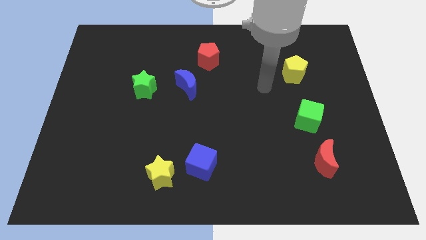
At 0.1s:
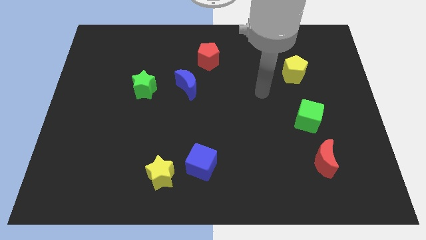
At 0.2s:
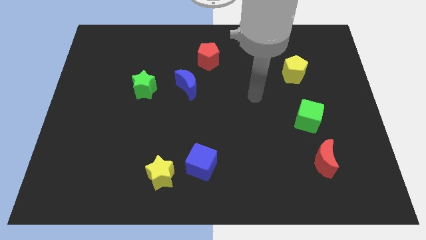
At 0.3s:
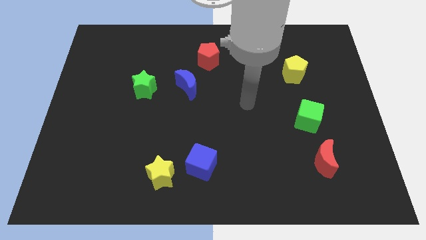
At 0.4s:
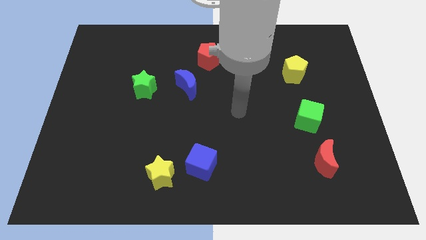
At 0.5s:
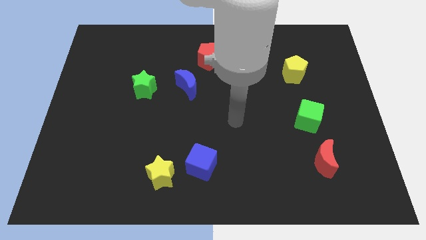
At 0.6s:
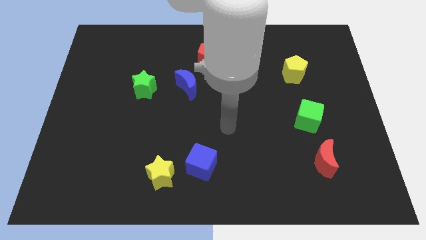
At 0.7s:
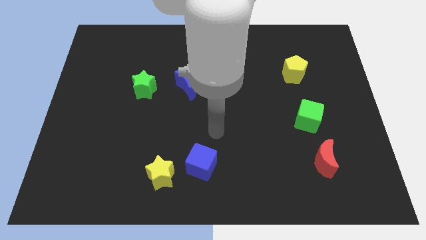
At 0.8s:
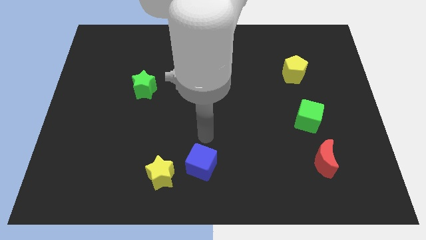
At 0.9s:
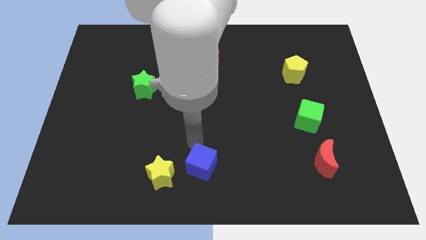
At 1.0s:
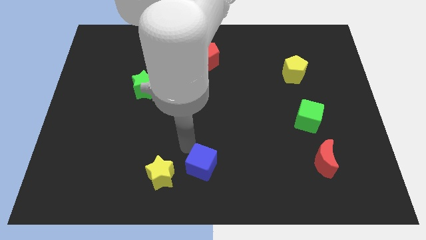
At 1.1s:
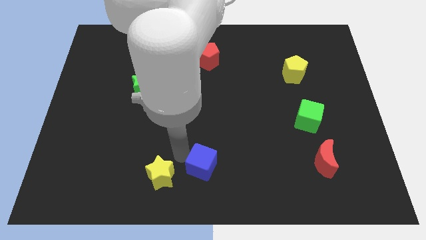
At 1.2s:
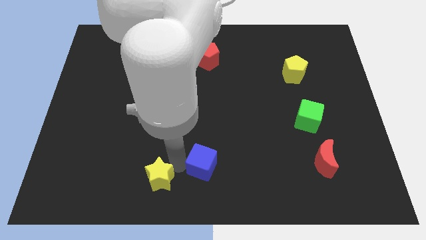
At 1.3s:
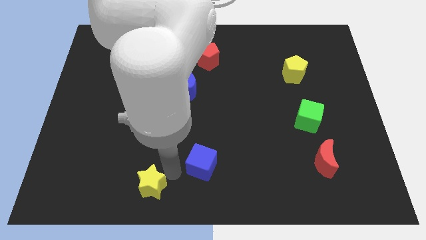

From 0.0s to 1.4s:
move the blue cube away from the yellow star

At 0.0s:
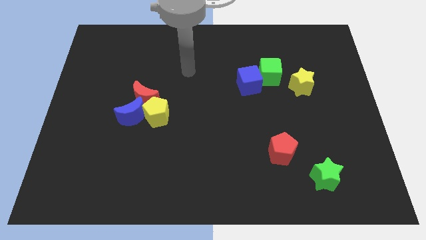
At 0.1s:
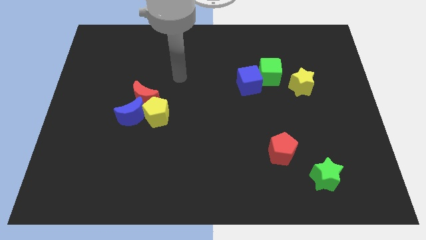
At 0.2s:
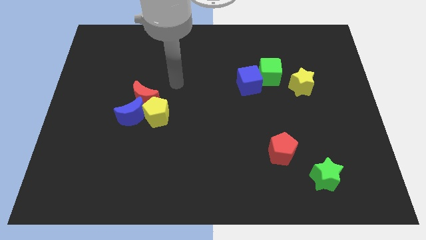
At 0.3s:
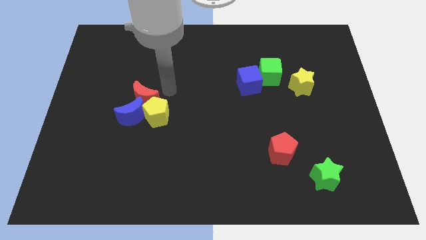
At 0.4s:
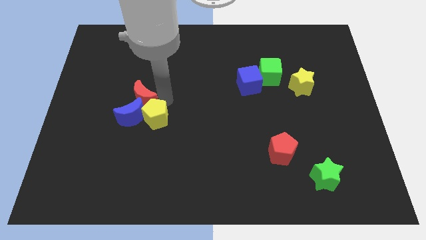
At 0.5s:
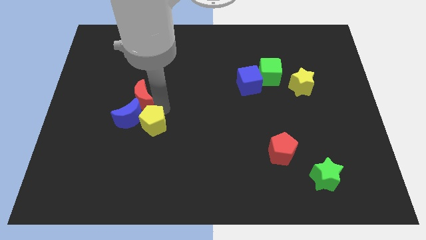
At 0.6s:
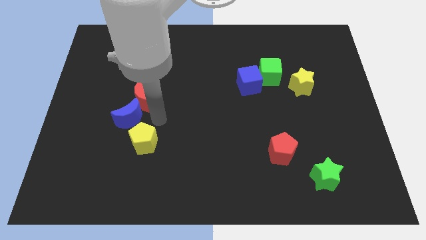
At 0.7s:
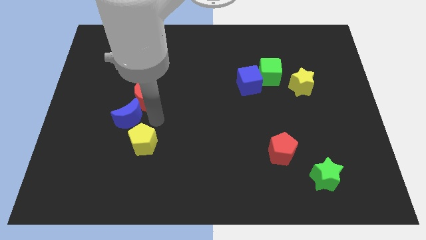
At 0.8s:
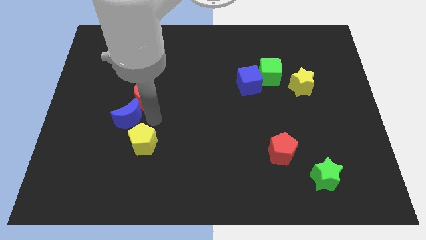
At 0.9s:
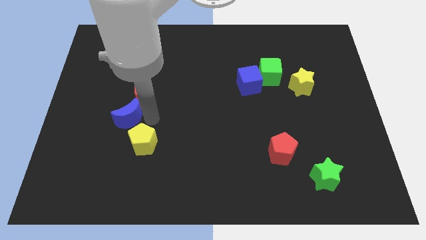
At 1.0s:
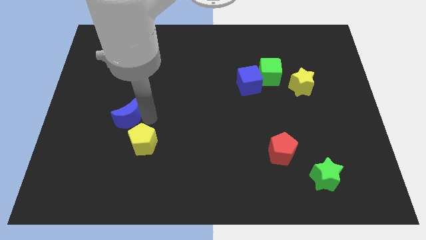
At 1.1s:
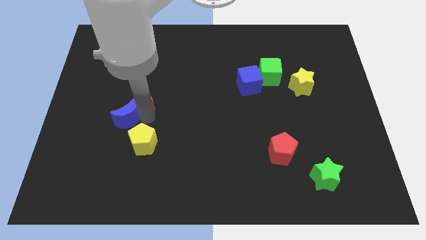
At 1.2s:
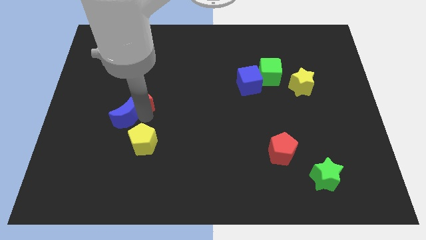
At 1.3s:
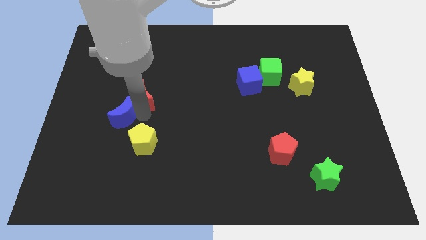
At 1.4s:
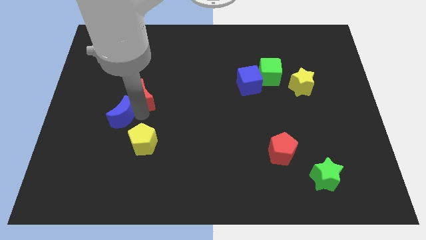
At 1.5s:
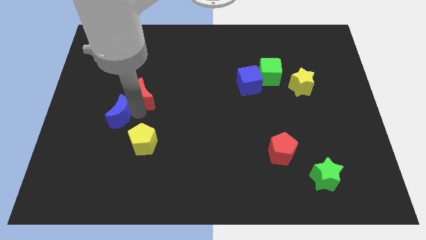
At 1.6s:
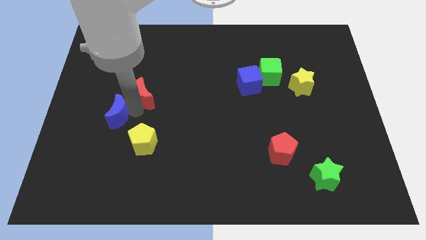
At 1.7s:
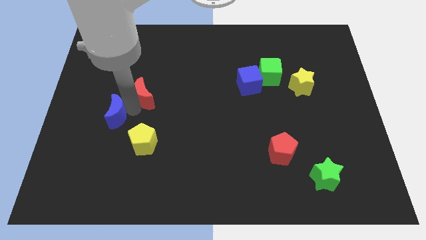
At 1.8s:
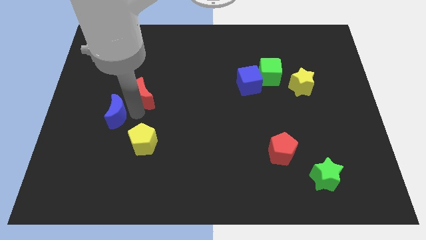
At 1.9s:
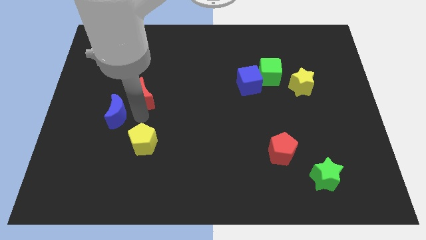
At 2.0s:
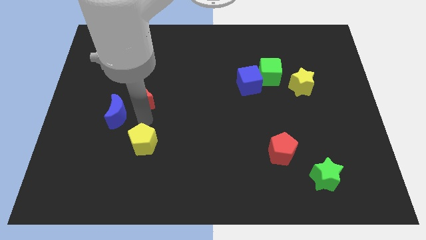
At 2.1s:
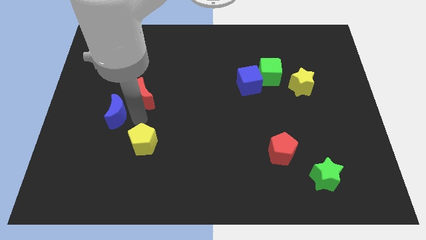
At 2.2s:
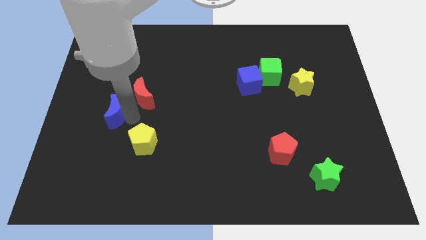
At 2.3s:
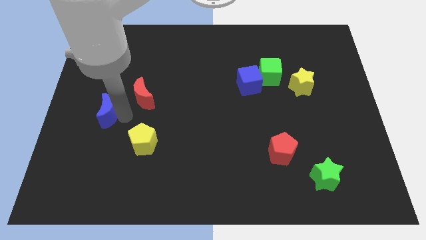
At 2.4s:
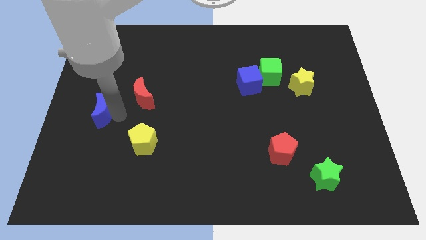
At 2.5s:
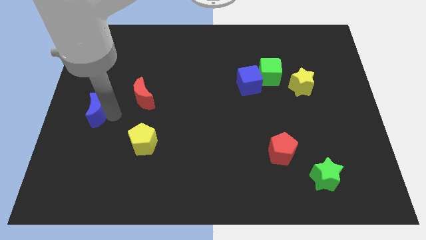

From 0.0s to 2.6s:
separate the blue moon from the red moon and yellow pentagon

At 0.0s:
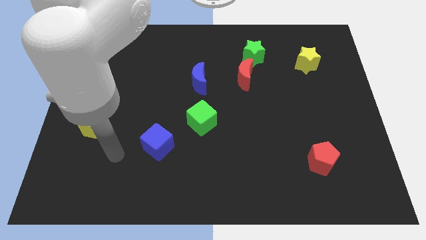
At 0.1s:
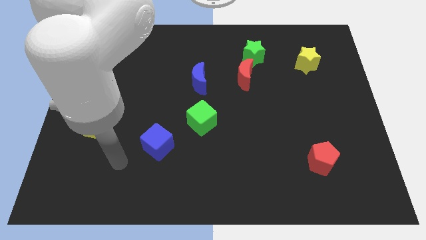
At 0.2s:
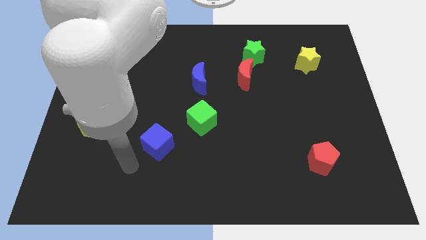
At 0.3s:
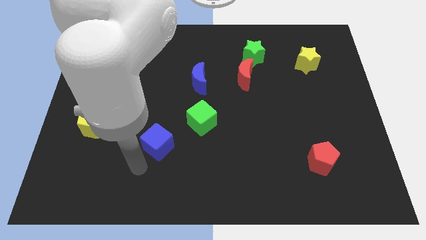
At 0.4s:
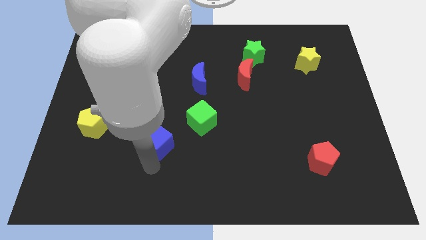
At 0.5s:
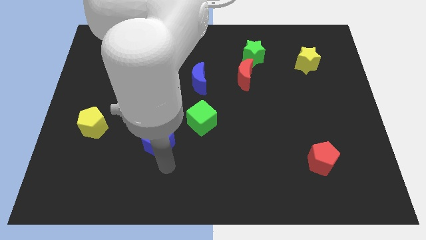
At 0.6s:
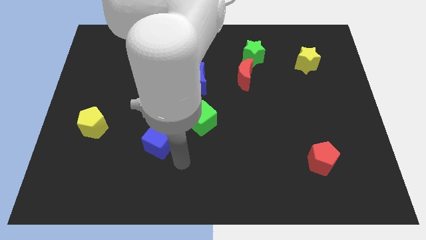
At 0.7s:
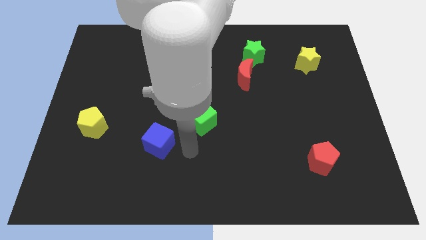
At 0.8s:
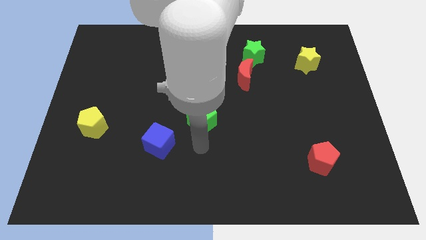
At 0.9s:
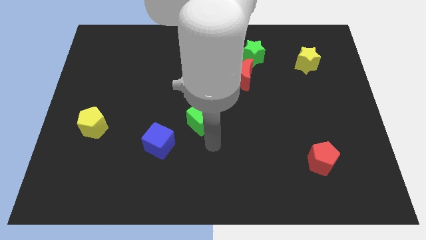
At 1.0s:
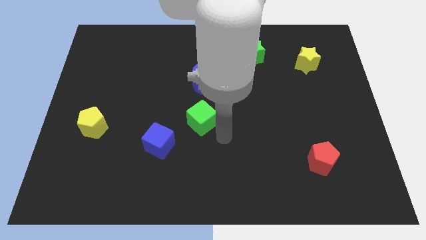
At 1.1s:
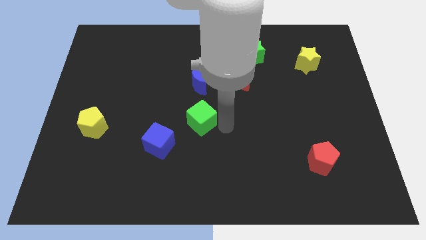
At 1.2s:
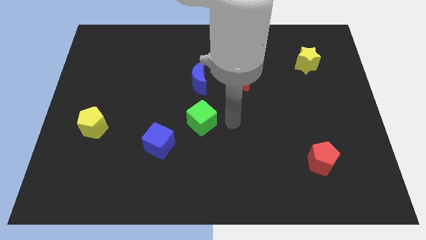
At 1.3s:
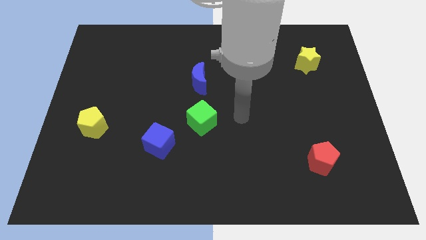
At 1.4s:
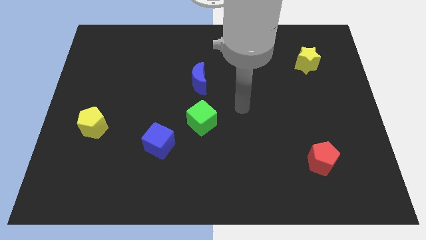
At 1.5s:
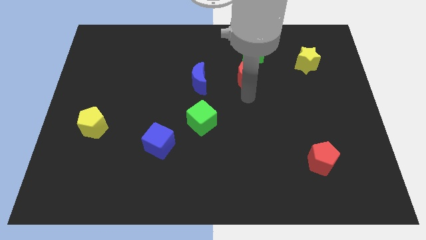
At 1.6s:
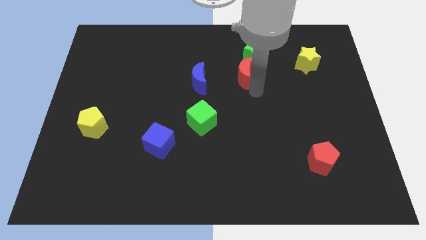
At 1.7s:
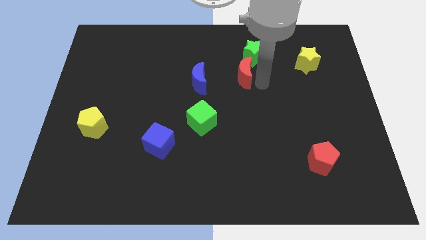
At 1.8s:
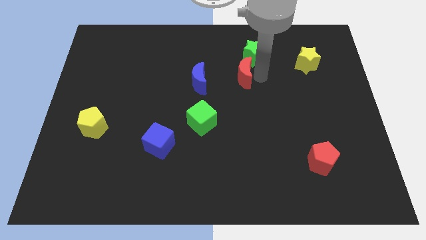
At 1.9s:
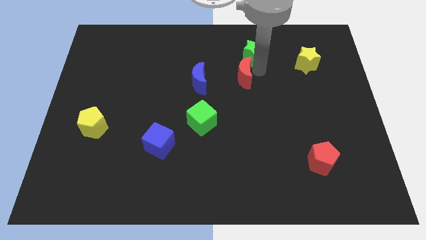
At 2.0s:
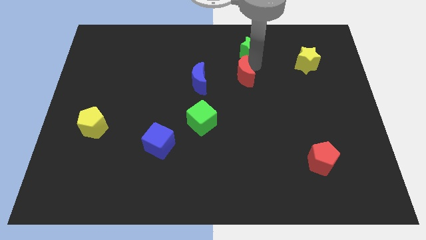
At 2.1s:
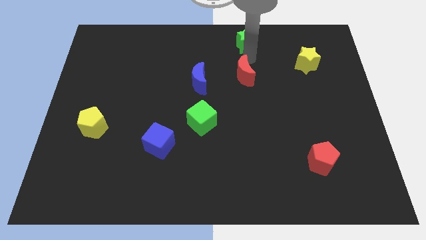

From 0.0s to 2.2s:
move the red moon away from the green star

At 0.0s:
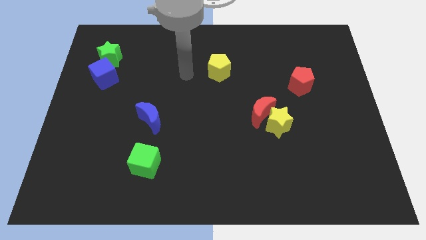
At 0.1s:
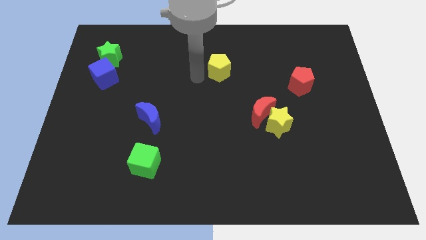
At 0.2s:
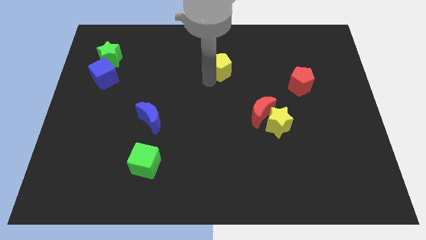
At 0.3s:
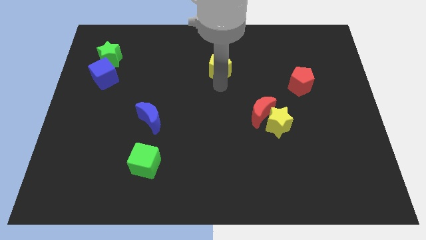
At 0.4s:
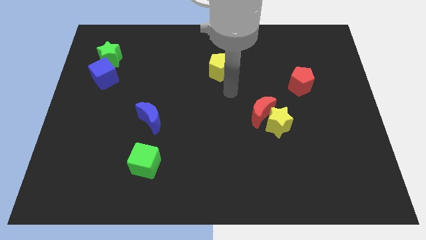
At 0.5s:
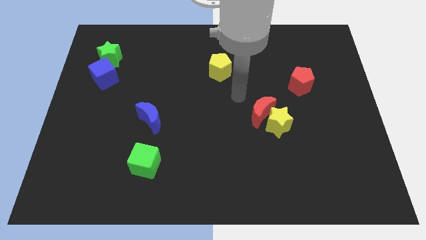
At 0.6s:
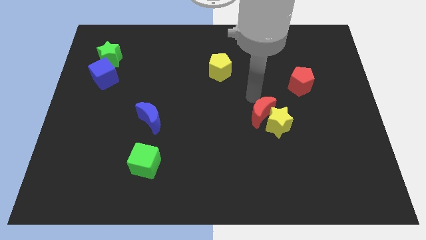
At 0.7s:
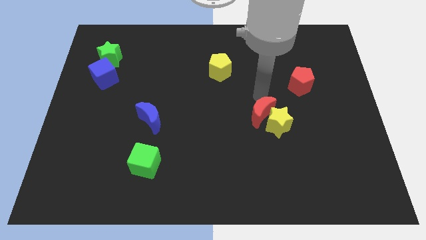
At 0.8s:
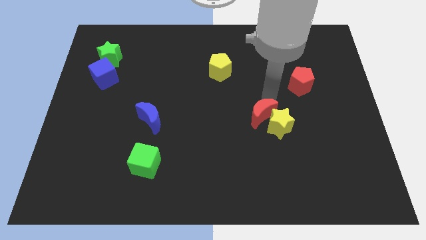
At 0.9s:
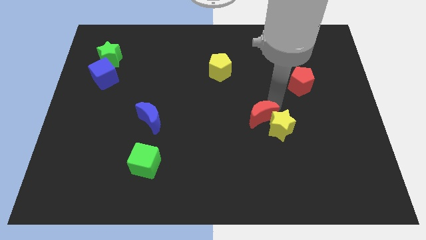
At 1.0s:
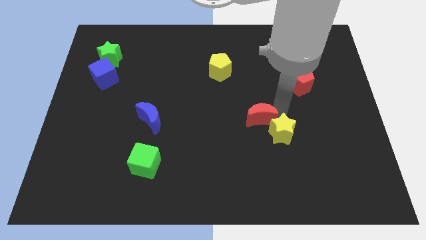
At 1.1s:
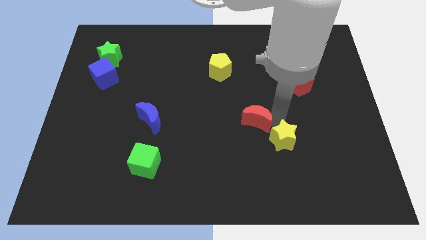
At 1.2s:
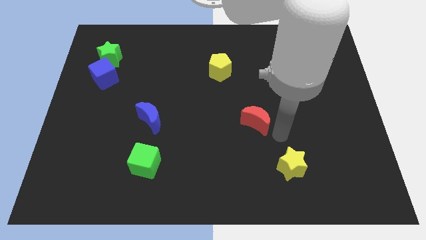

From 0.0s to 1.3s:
separate the red moon from the yellow star

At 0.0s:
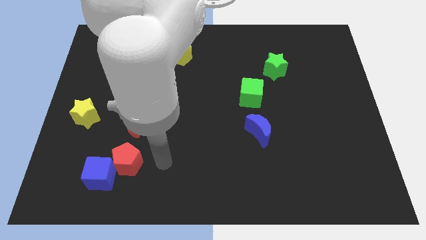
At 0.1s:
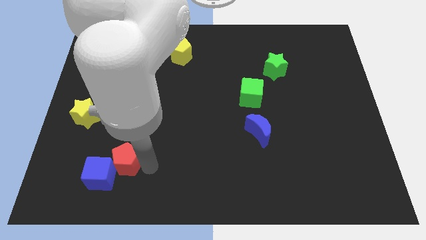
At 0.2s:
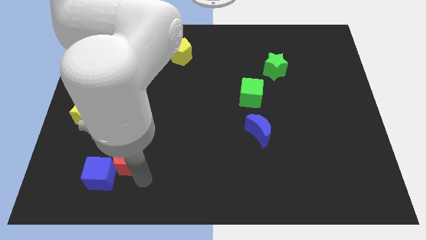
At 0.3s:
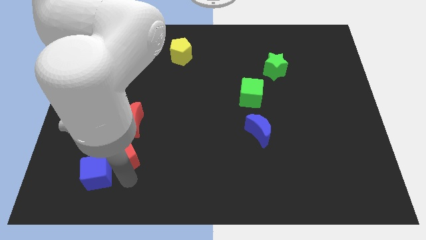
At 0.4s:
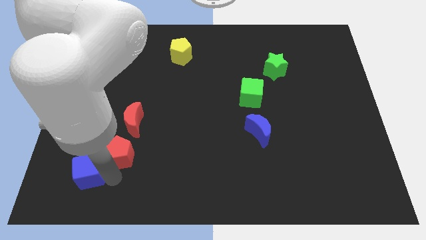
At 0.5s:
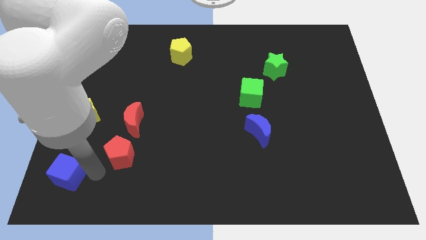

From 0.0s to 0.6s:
pull the red pentagon apart from the blue cube

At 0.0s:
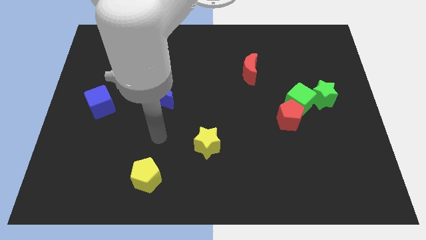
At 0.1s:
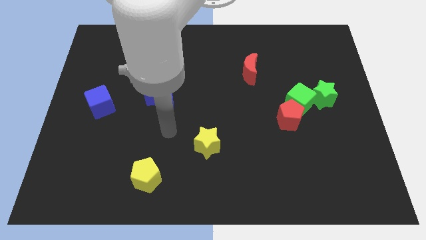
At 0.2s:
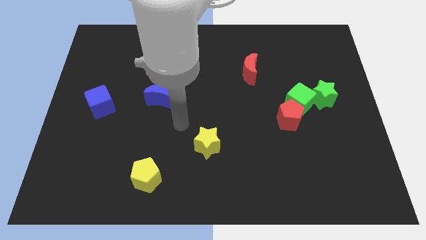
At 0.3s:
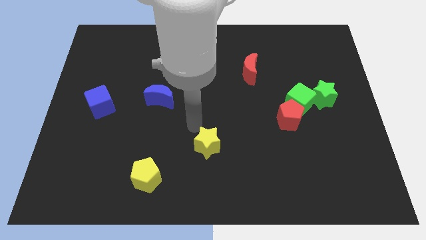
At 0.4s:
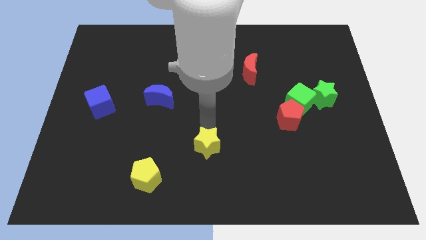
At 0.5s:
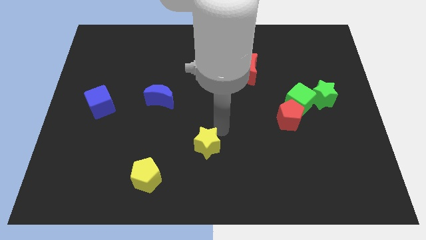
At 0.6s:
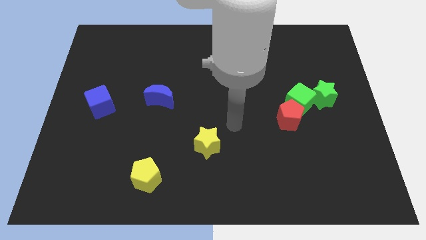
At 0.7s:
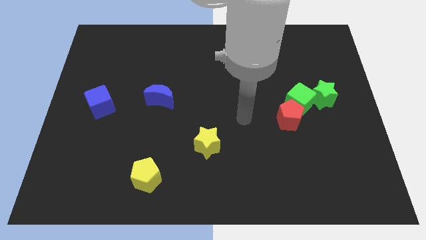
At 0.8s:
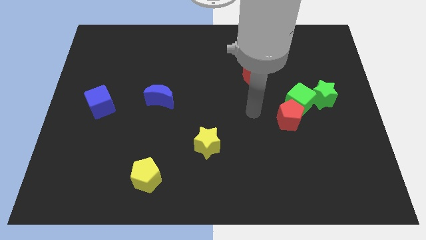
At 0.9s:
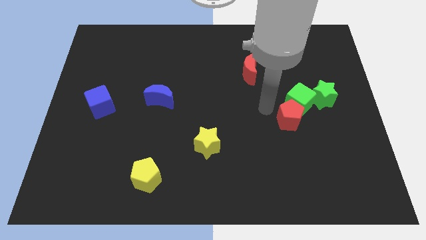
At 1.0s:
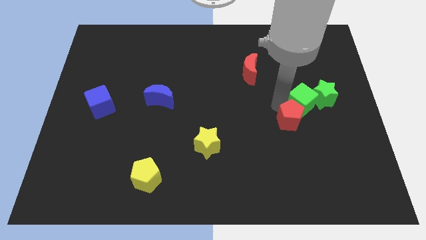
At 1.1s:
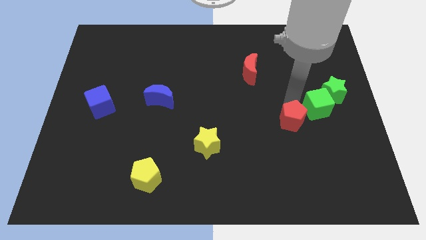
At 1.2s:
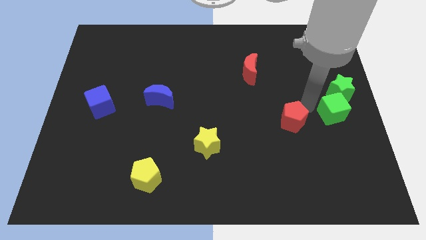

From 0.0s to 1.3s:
move the red pentagon away from the green cube
